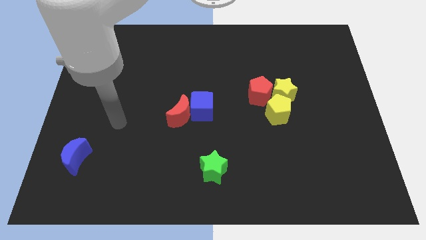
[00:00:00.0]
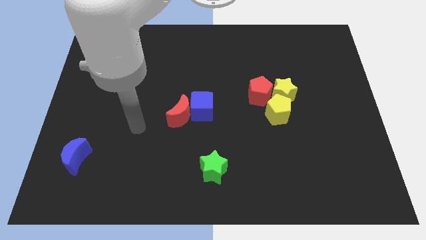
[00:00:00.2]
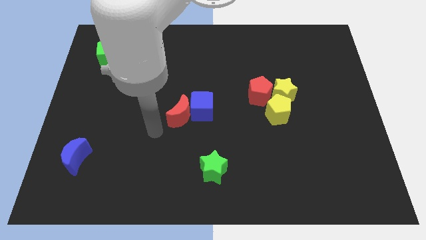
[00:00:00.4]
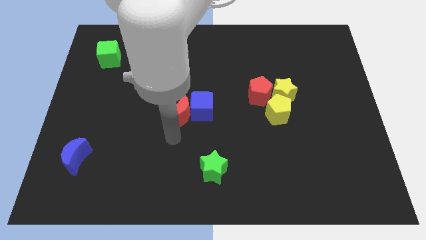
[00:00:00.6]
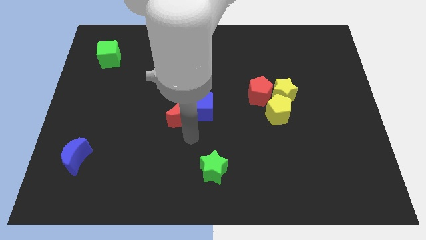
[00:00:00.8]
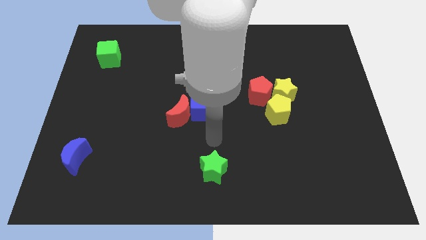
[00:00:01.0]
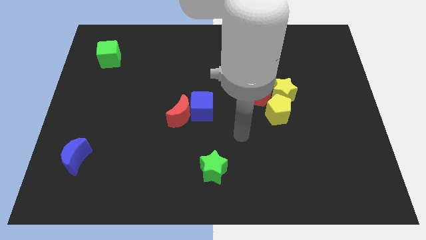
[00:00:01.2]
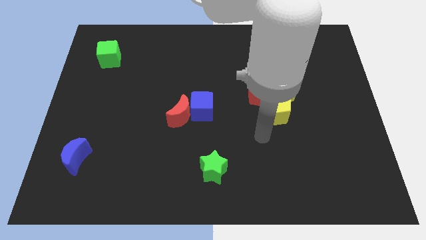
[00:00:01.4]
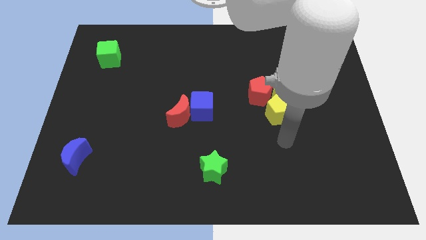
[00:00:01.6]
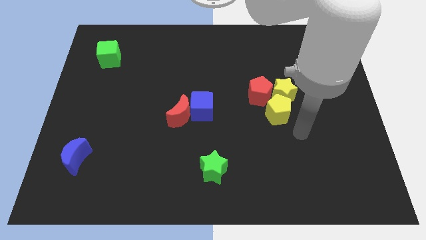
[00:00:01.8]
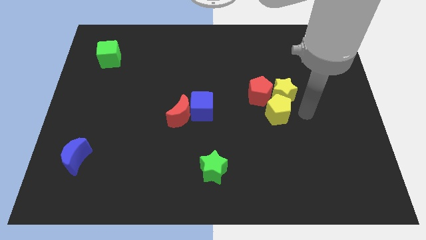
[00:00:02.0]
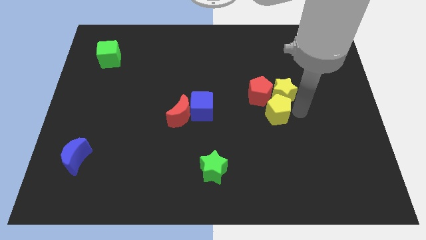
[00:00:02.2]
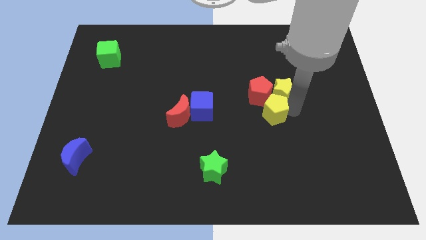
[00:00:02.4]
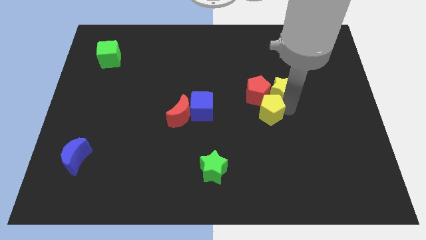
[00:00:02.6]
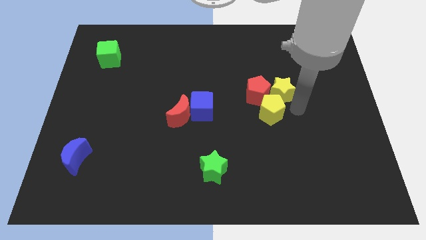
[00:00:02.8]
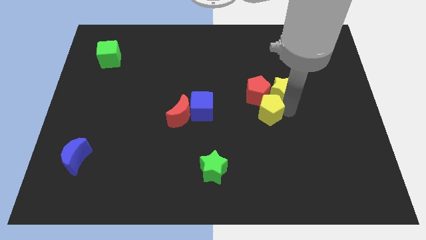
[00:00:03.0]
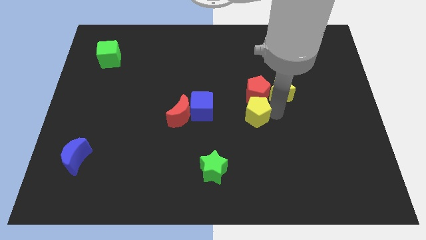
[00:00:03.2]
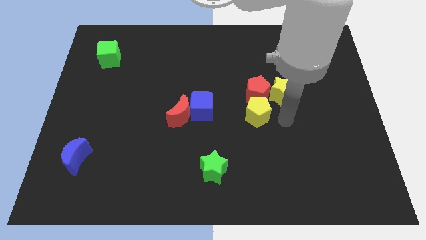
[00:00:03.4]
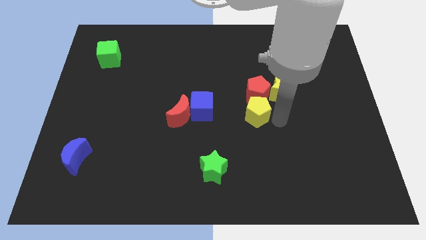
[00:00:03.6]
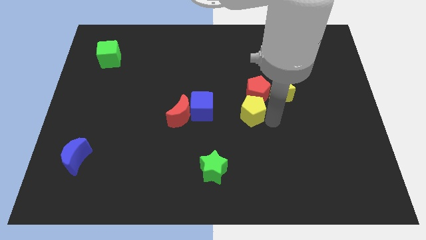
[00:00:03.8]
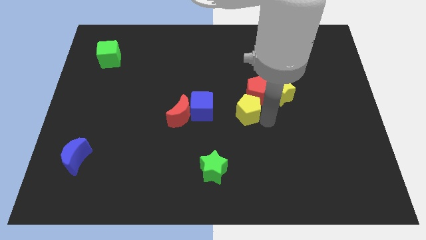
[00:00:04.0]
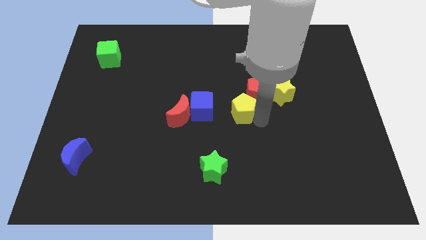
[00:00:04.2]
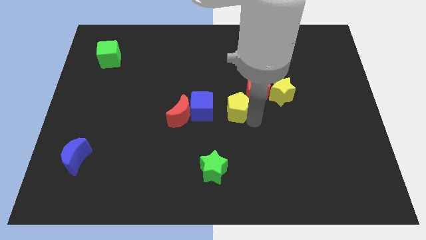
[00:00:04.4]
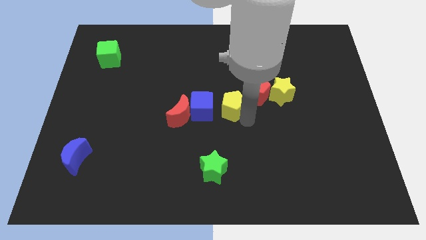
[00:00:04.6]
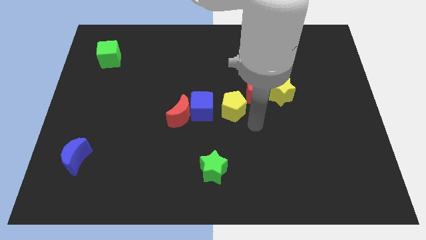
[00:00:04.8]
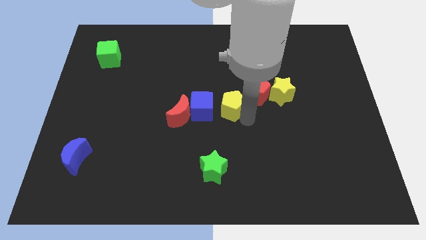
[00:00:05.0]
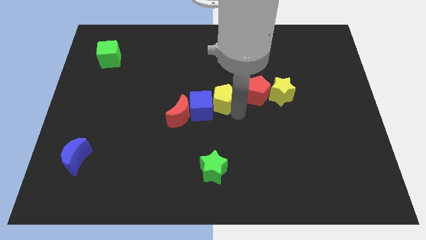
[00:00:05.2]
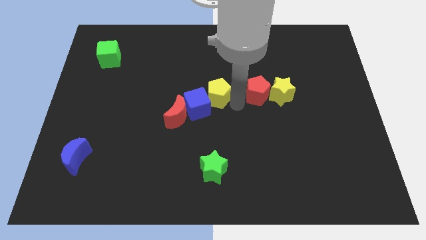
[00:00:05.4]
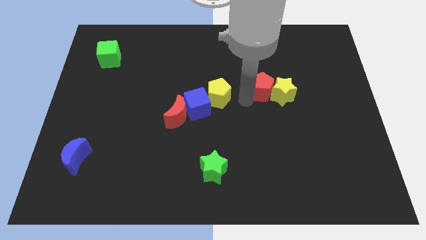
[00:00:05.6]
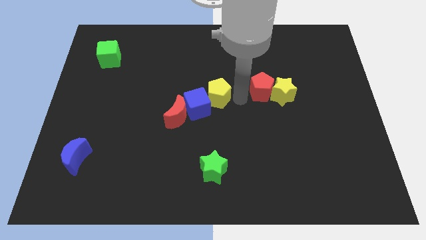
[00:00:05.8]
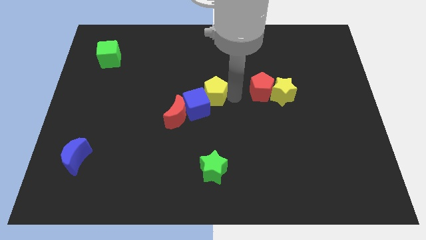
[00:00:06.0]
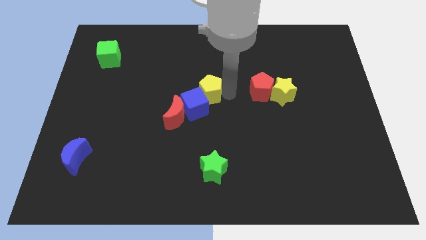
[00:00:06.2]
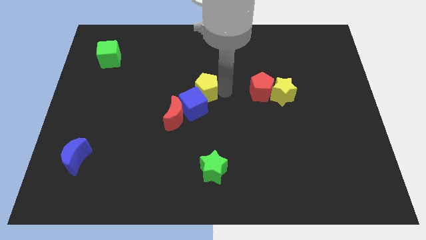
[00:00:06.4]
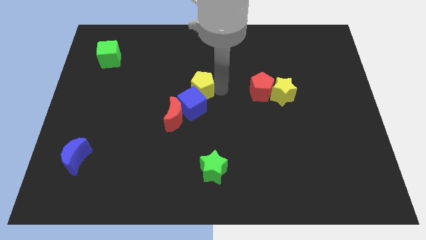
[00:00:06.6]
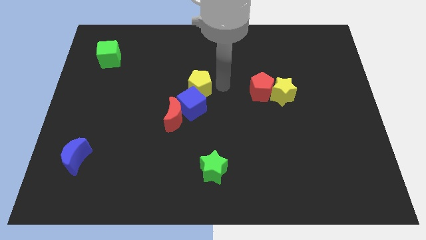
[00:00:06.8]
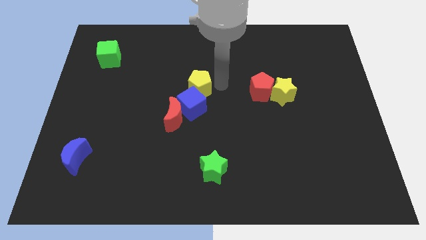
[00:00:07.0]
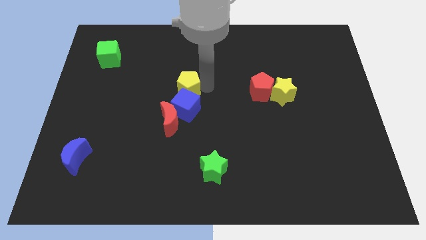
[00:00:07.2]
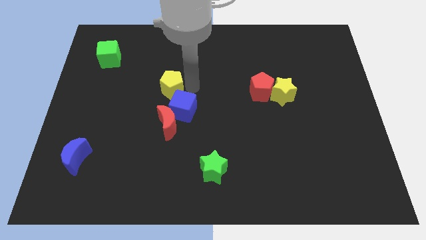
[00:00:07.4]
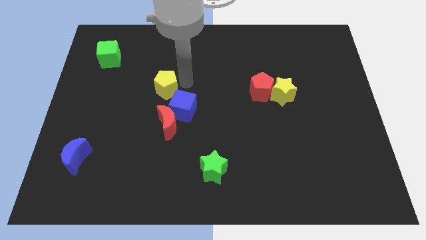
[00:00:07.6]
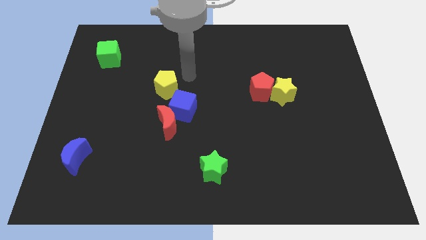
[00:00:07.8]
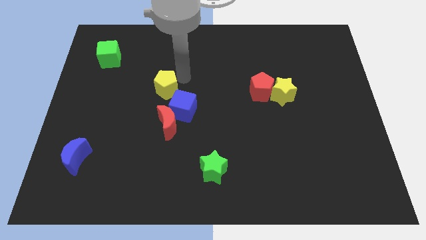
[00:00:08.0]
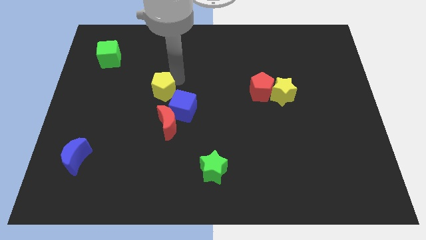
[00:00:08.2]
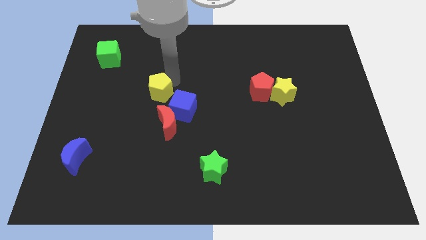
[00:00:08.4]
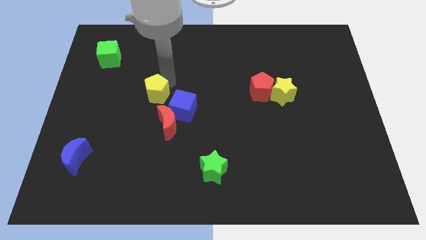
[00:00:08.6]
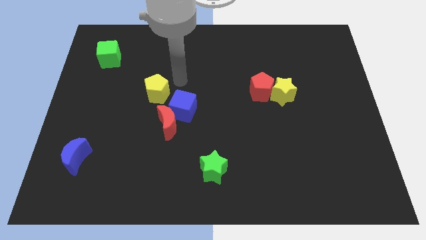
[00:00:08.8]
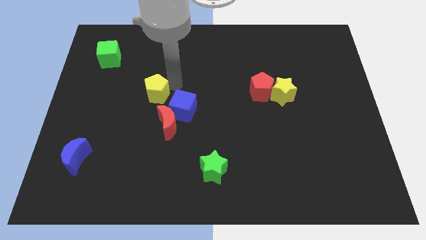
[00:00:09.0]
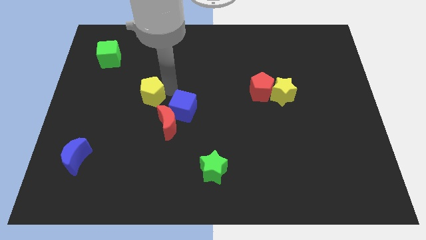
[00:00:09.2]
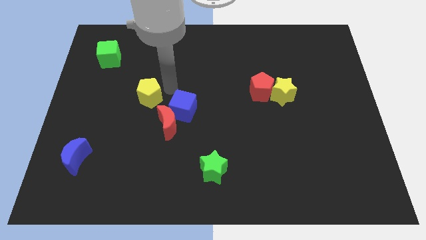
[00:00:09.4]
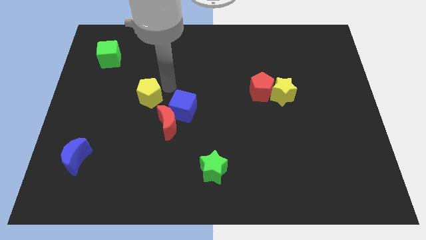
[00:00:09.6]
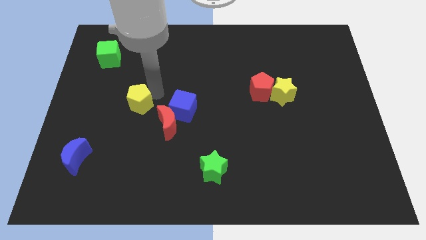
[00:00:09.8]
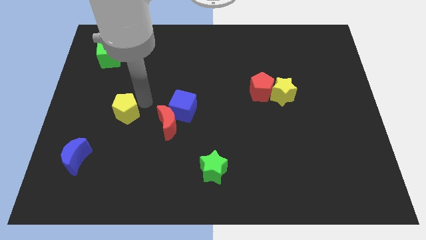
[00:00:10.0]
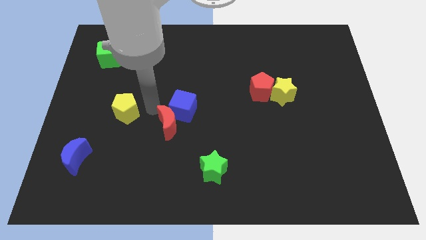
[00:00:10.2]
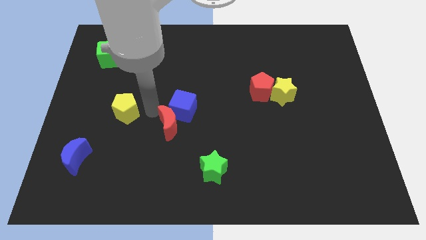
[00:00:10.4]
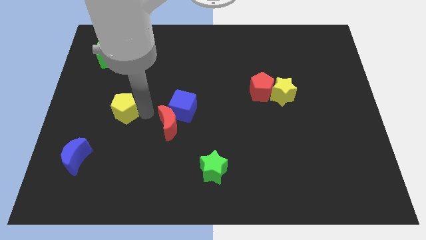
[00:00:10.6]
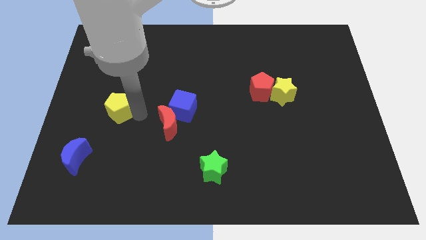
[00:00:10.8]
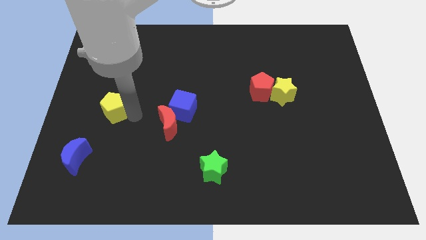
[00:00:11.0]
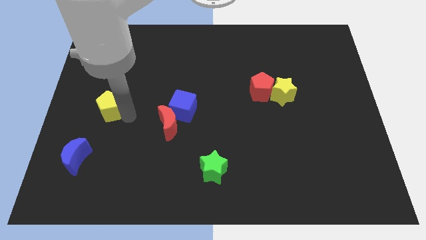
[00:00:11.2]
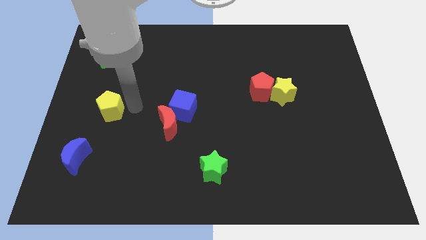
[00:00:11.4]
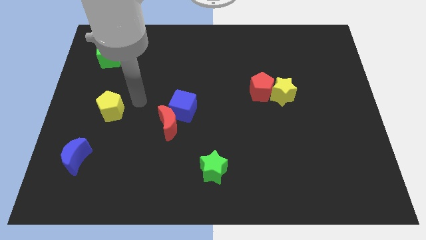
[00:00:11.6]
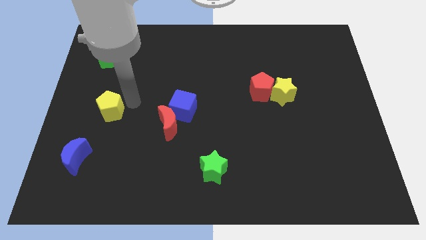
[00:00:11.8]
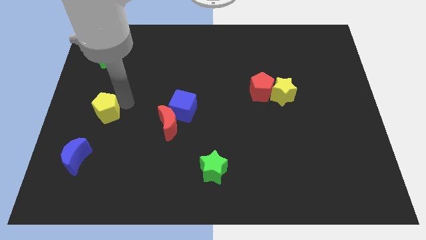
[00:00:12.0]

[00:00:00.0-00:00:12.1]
put the yellow pentagon to the top side of the blue moon
